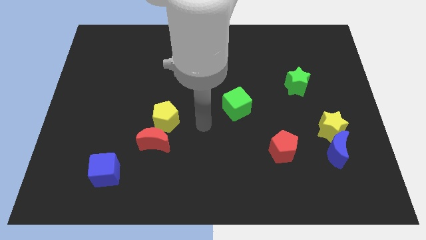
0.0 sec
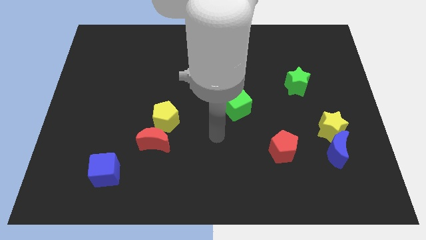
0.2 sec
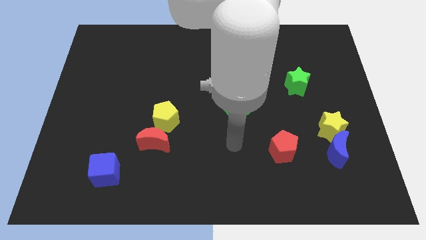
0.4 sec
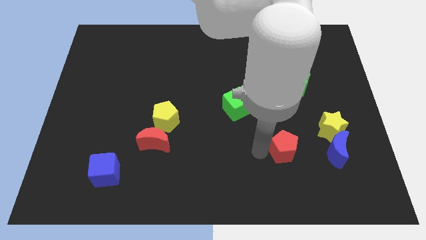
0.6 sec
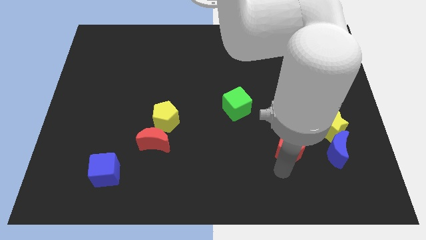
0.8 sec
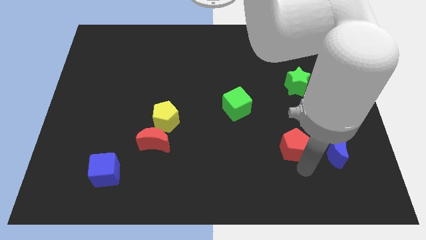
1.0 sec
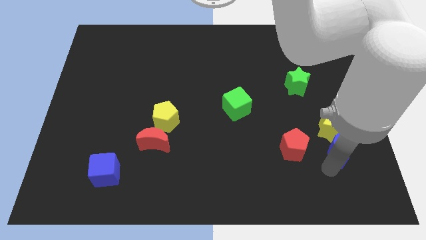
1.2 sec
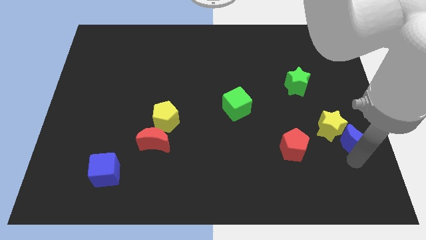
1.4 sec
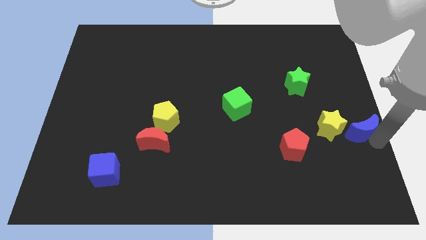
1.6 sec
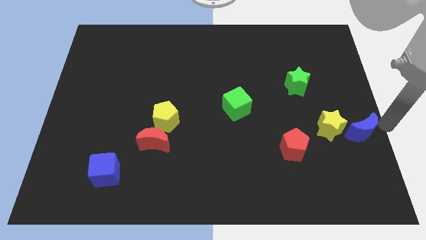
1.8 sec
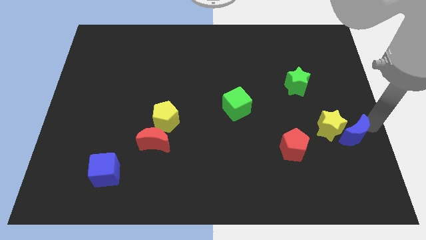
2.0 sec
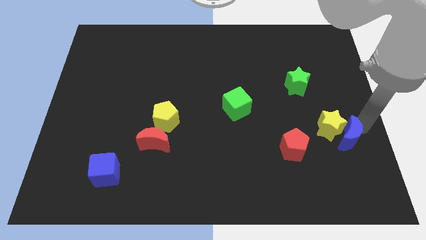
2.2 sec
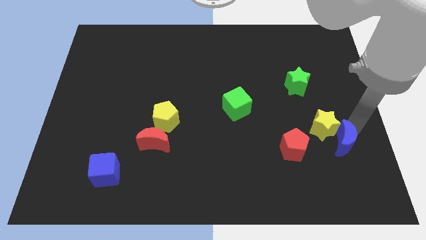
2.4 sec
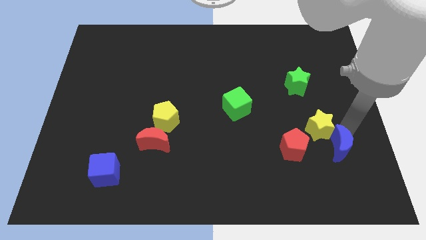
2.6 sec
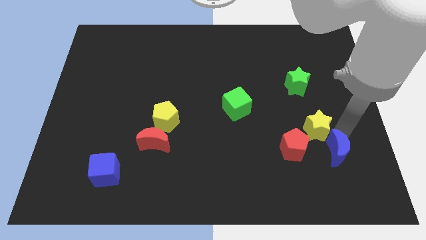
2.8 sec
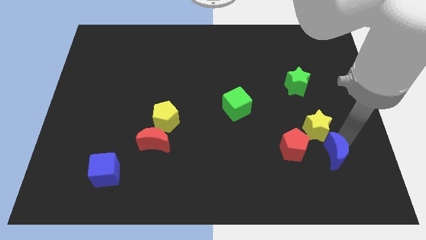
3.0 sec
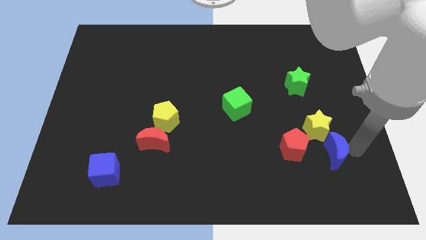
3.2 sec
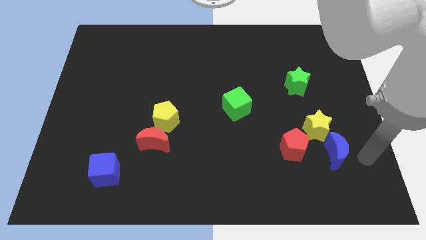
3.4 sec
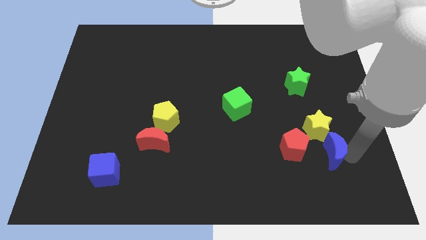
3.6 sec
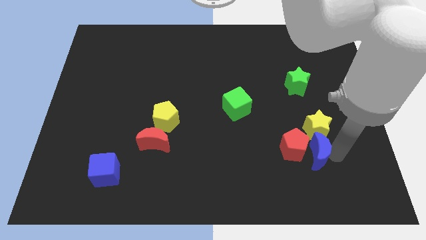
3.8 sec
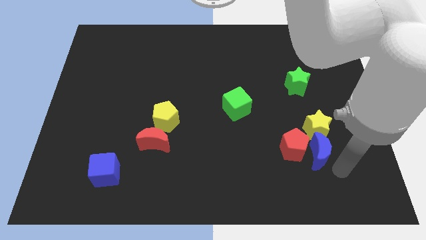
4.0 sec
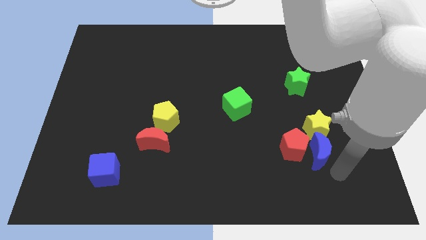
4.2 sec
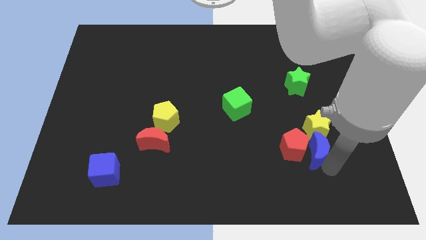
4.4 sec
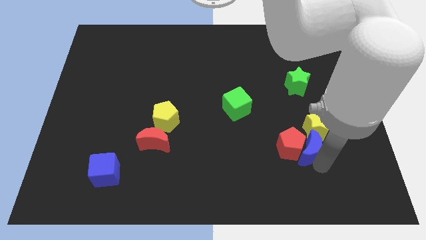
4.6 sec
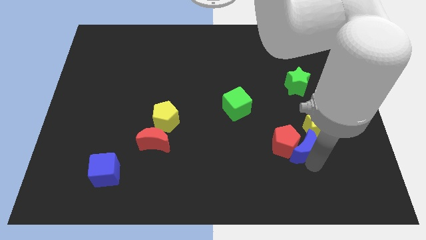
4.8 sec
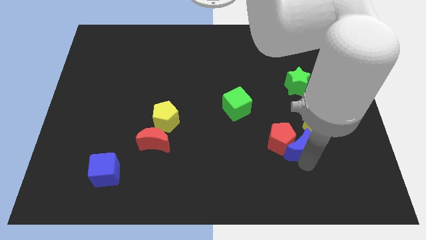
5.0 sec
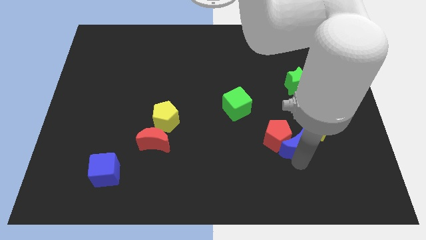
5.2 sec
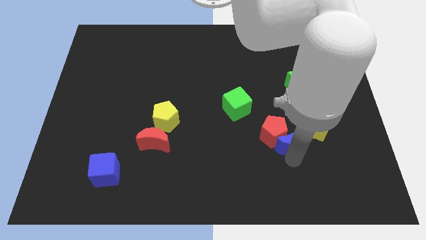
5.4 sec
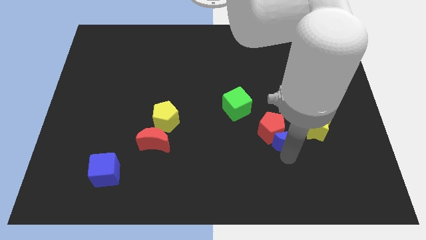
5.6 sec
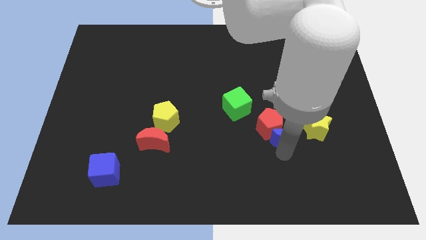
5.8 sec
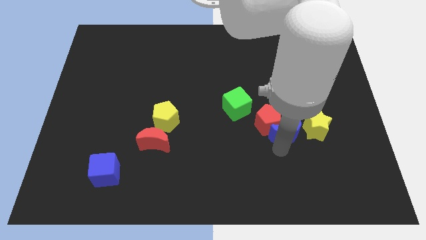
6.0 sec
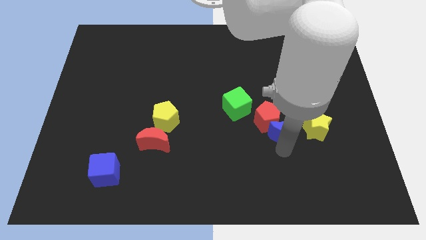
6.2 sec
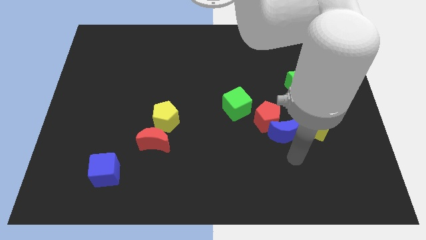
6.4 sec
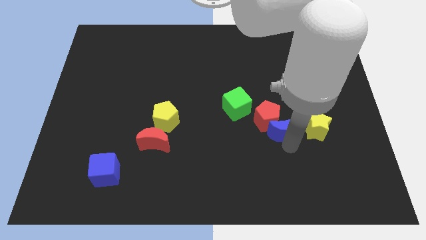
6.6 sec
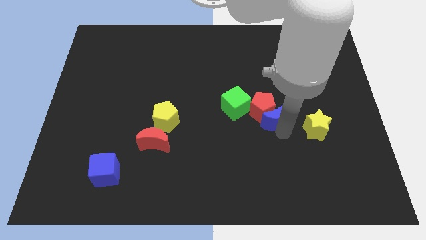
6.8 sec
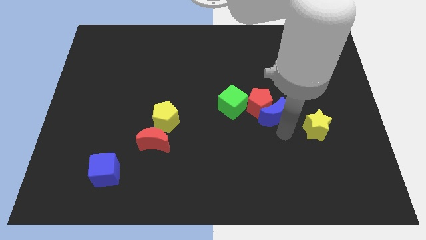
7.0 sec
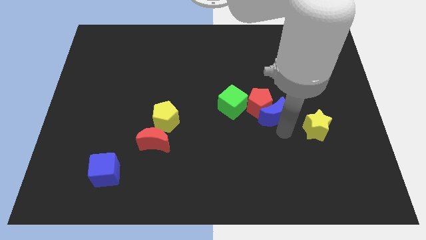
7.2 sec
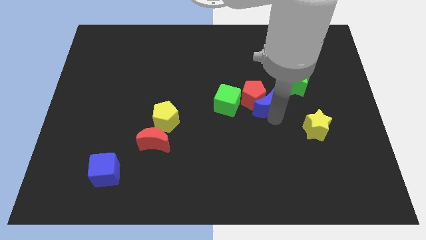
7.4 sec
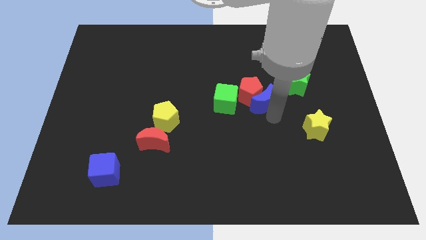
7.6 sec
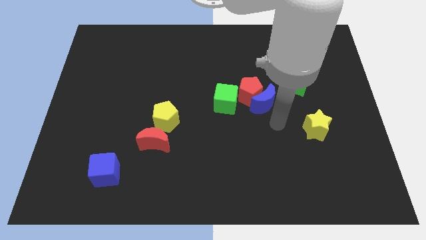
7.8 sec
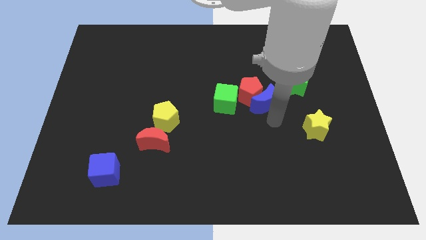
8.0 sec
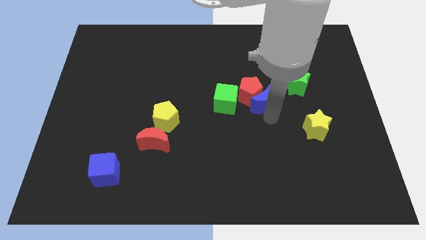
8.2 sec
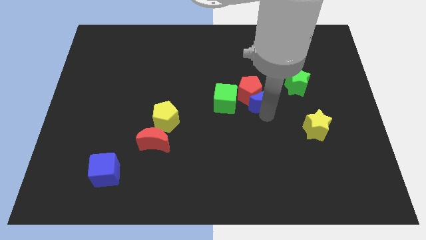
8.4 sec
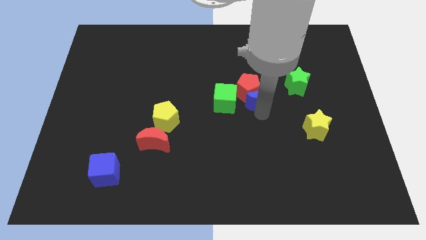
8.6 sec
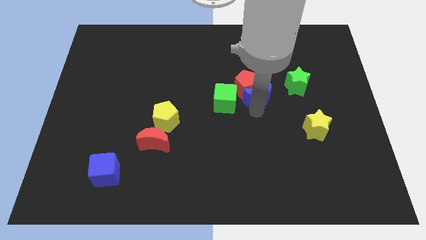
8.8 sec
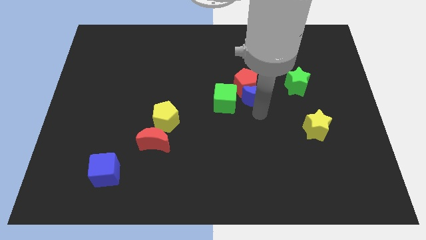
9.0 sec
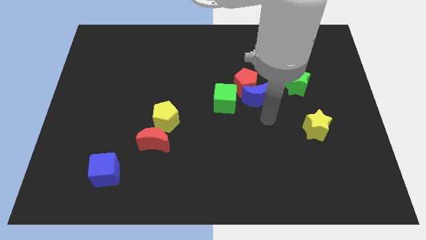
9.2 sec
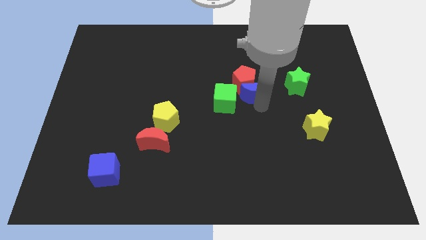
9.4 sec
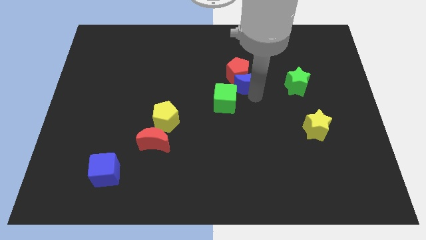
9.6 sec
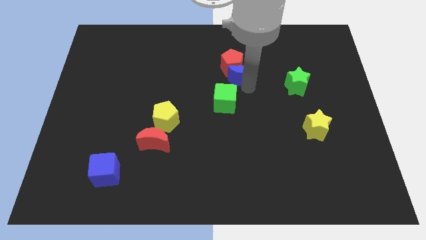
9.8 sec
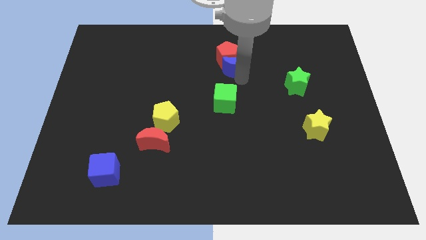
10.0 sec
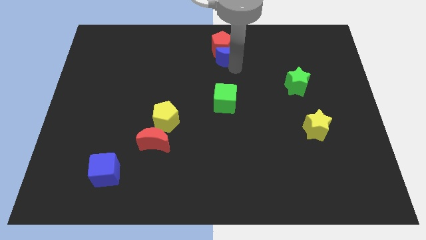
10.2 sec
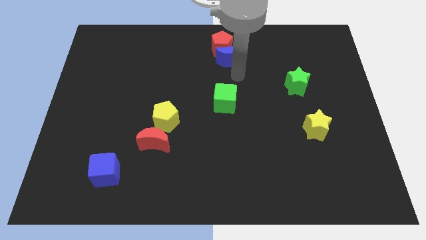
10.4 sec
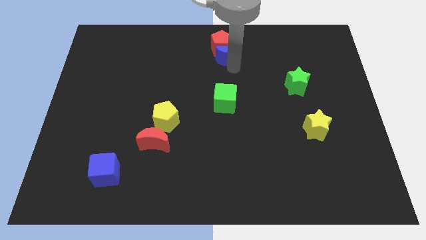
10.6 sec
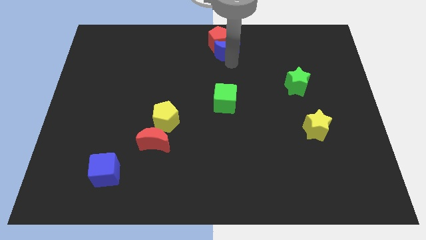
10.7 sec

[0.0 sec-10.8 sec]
push the blue moon to the towards your base

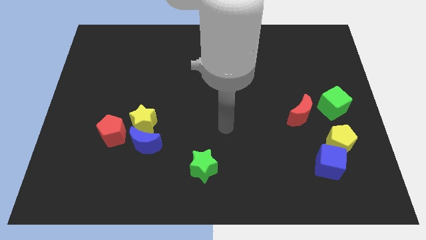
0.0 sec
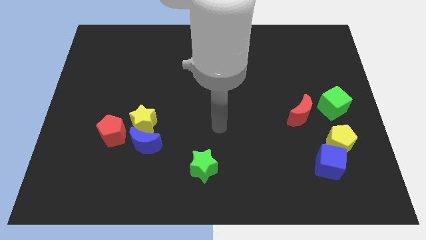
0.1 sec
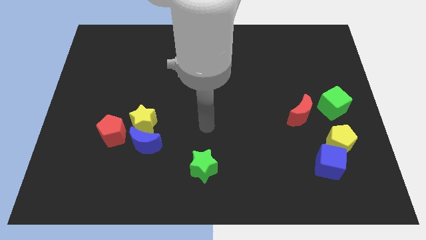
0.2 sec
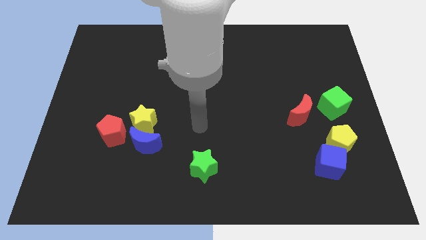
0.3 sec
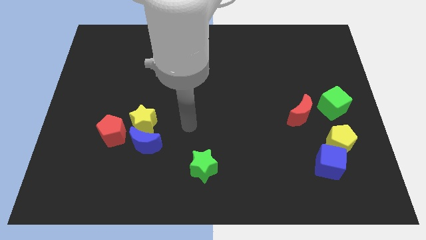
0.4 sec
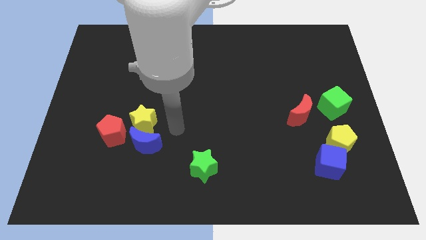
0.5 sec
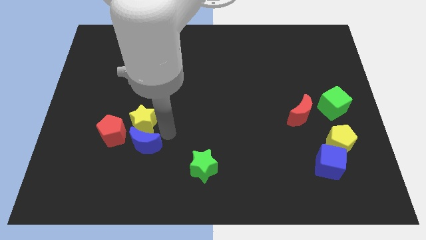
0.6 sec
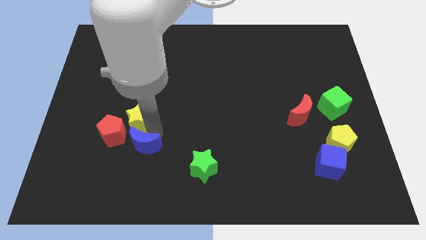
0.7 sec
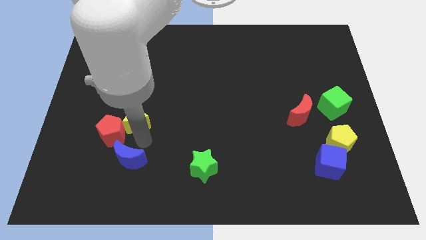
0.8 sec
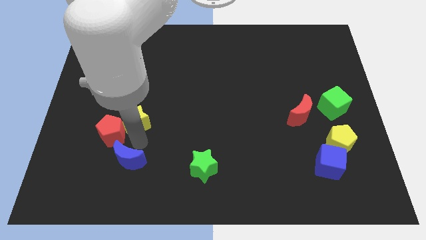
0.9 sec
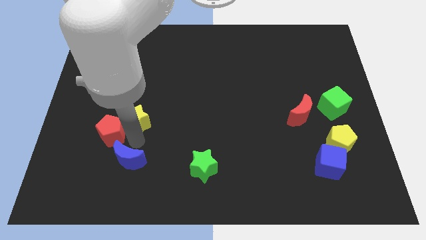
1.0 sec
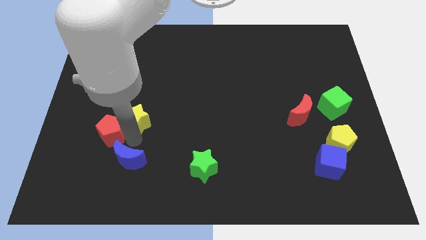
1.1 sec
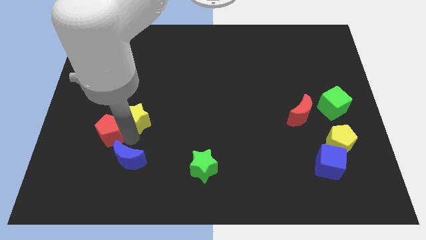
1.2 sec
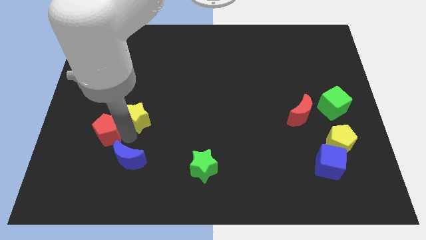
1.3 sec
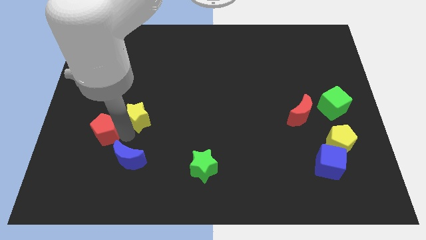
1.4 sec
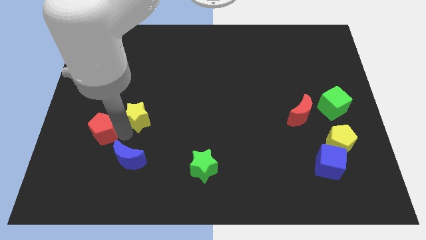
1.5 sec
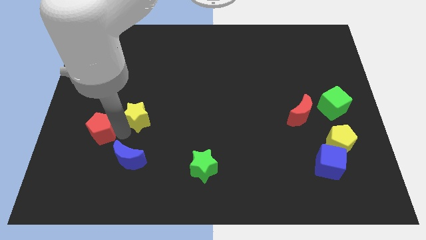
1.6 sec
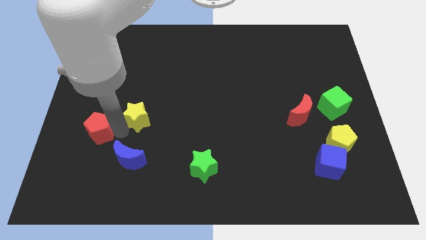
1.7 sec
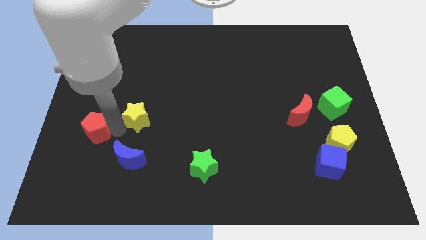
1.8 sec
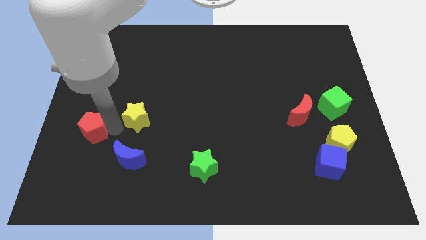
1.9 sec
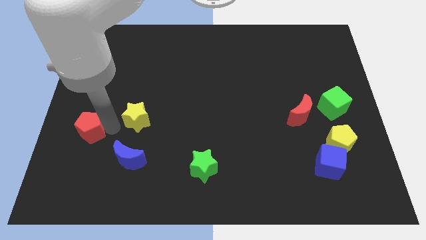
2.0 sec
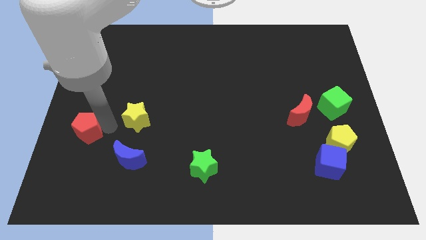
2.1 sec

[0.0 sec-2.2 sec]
move the red pentagon to the left side of the board
